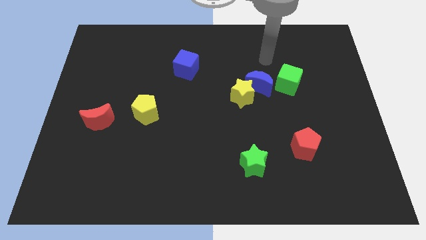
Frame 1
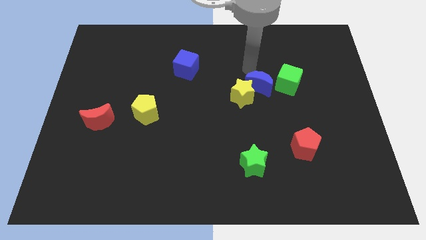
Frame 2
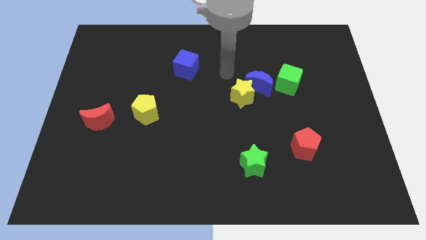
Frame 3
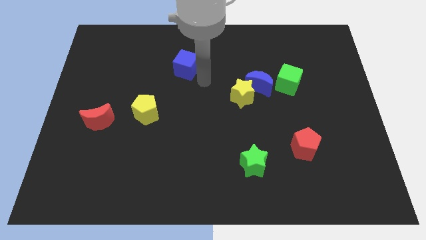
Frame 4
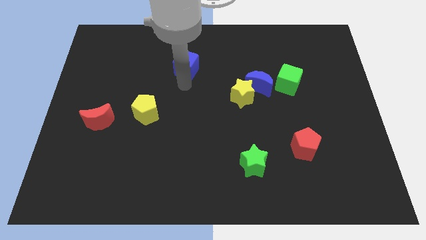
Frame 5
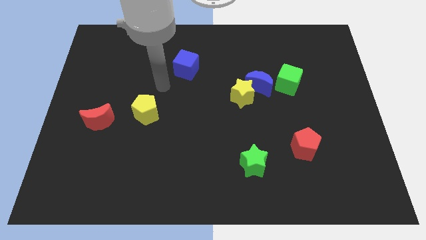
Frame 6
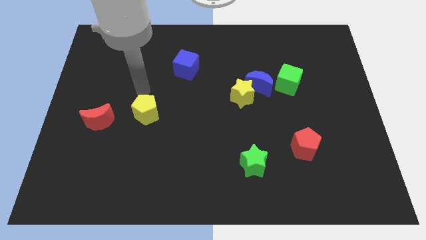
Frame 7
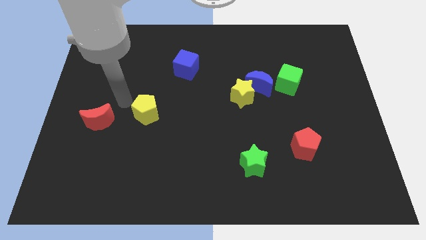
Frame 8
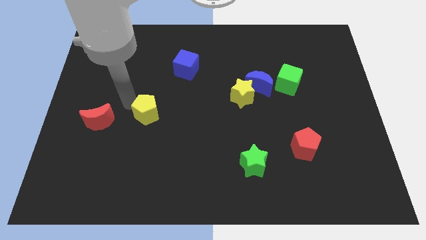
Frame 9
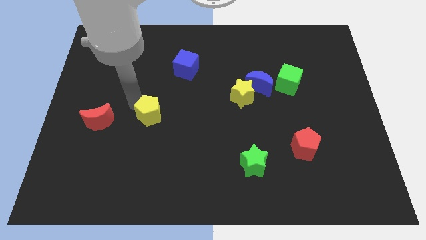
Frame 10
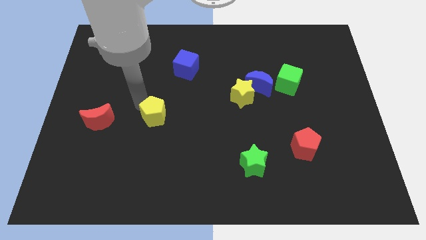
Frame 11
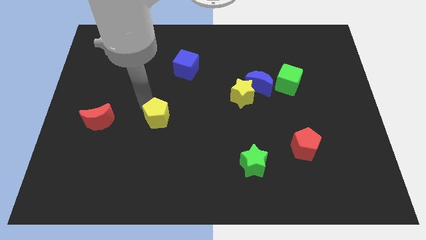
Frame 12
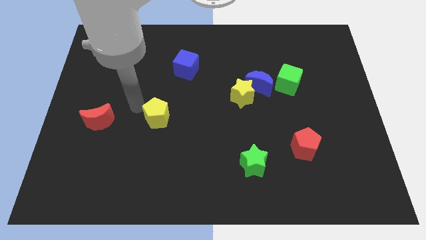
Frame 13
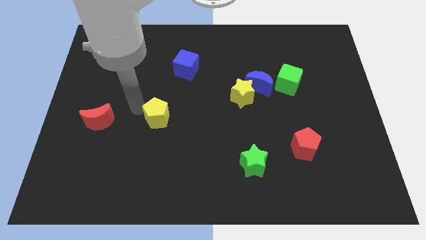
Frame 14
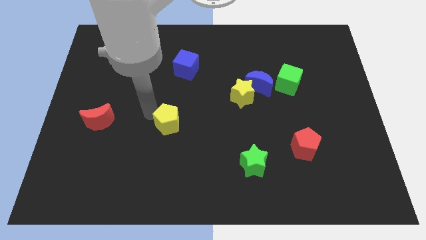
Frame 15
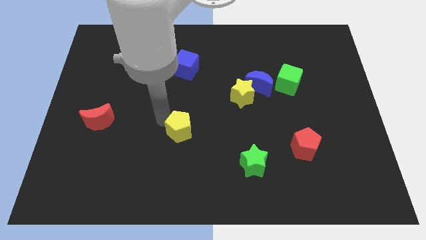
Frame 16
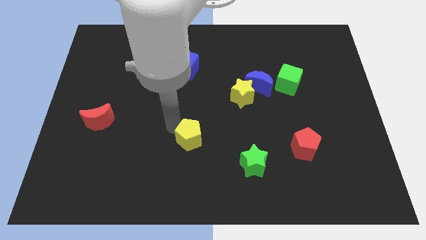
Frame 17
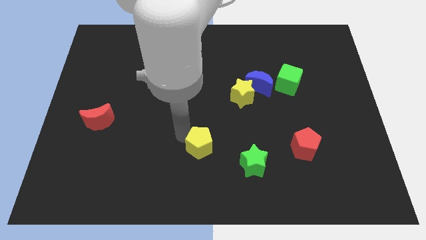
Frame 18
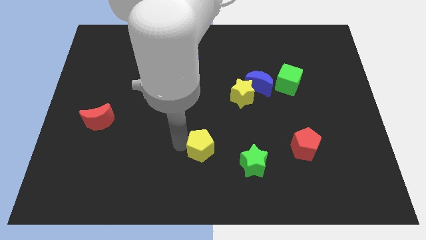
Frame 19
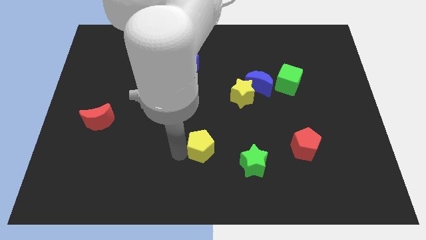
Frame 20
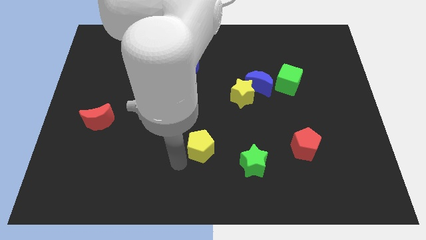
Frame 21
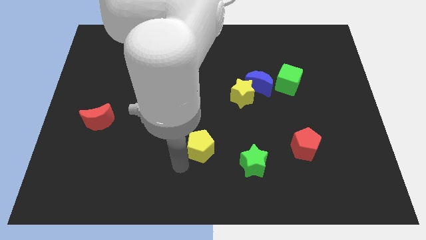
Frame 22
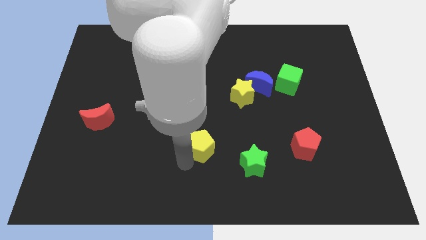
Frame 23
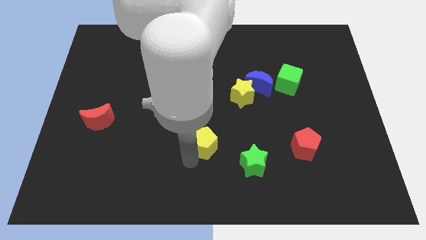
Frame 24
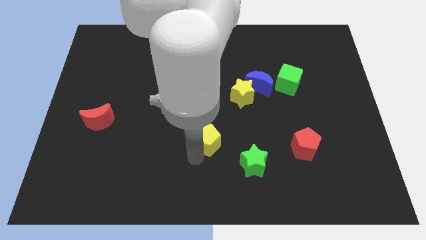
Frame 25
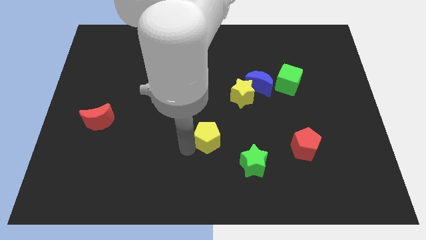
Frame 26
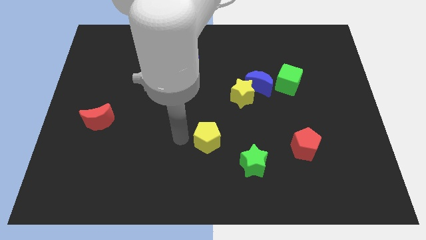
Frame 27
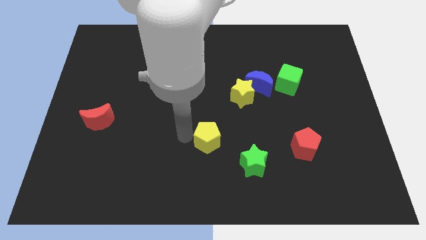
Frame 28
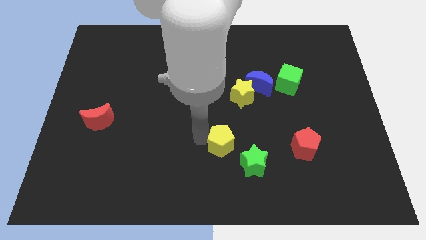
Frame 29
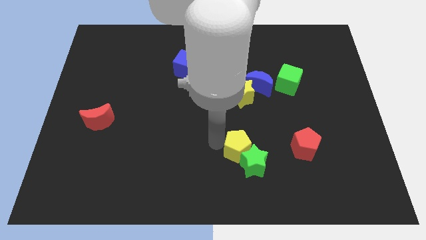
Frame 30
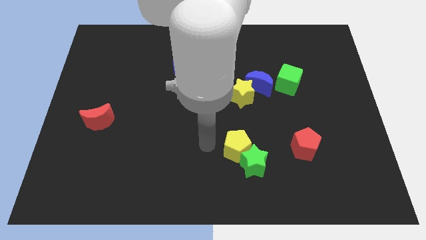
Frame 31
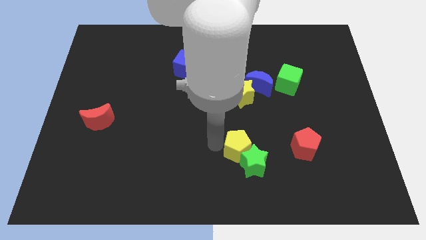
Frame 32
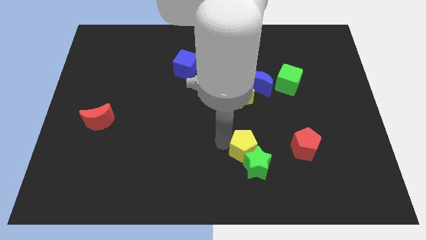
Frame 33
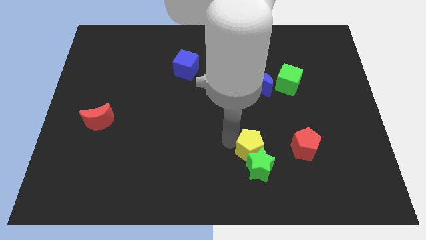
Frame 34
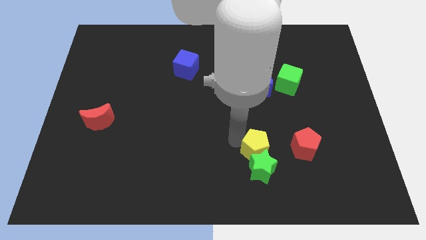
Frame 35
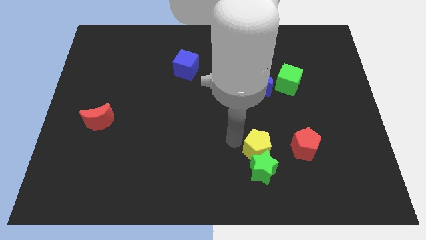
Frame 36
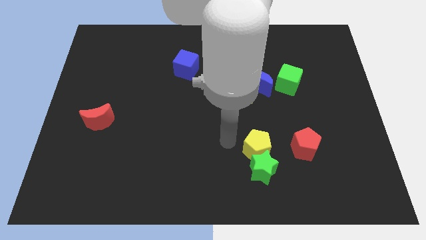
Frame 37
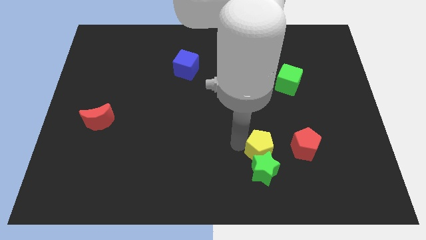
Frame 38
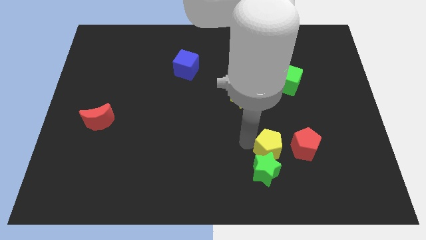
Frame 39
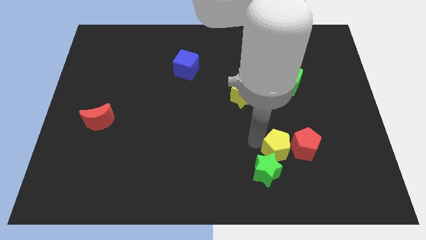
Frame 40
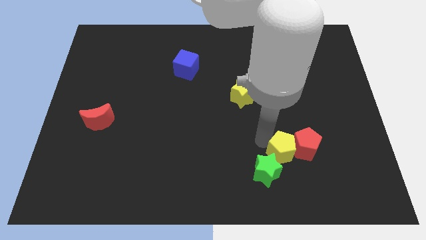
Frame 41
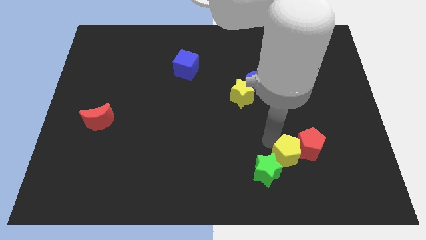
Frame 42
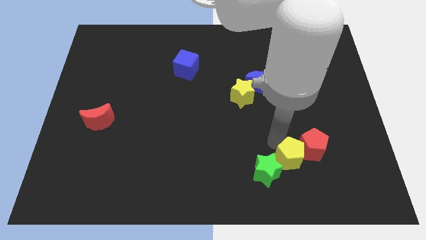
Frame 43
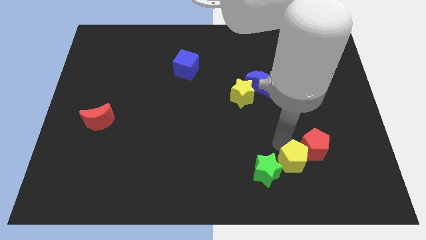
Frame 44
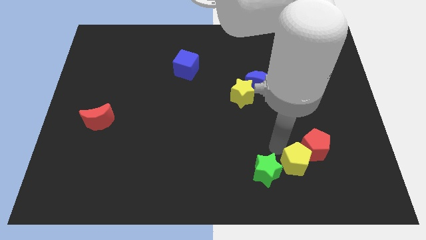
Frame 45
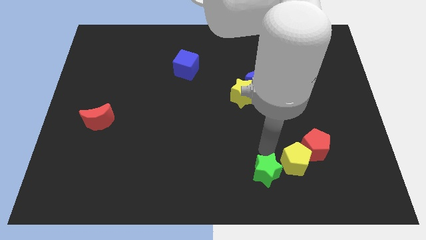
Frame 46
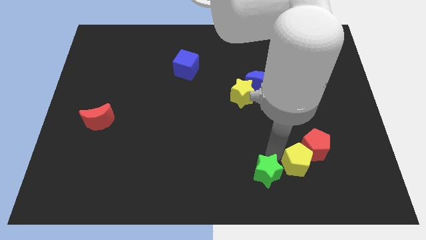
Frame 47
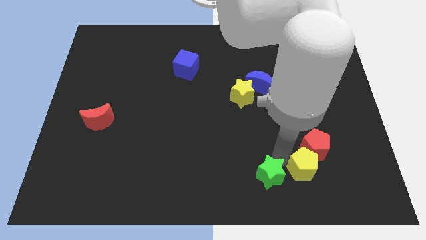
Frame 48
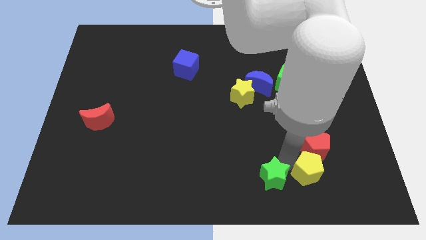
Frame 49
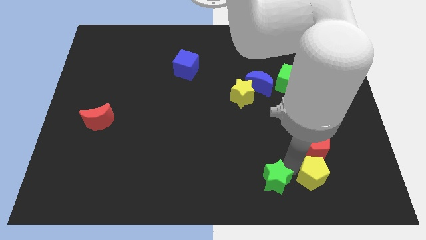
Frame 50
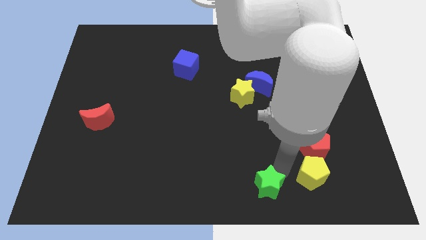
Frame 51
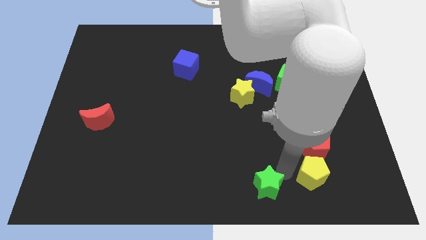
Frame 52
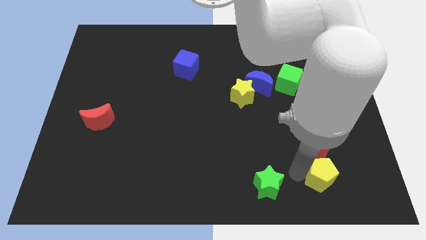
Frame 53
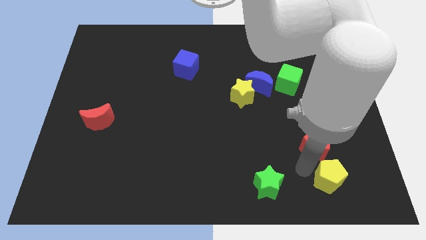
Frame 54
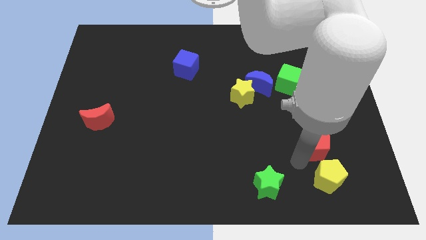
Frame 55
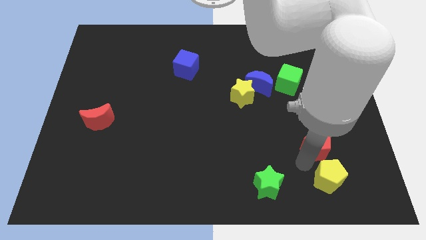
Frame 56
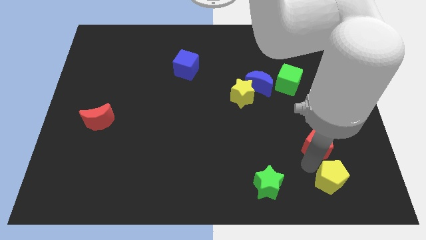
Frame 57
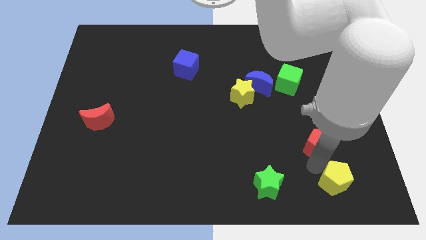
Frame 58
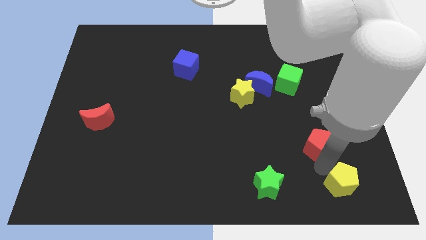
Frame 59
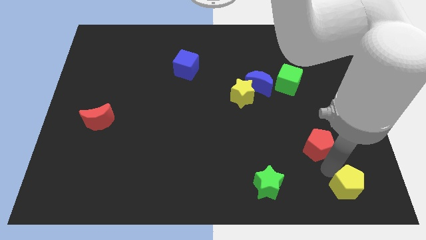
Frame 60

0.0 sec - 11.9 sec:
push the yellow pentagon to the lower right corner

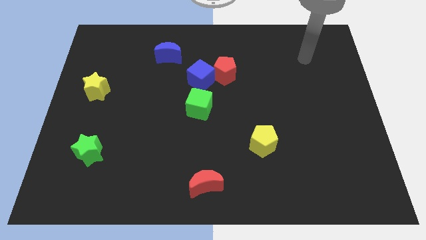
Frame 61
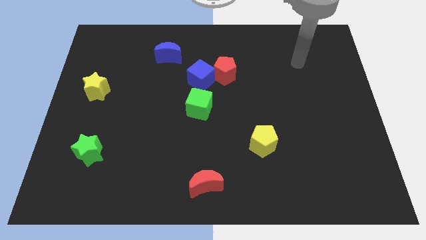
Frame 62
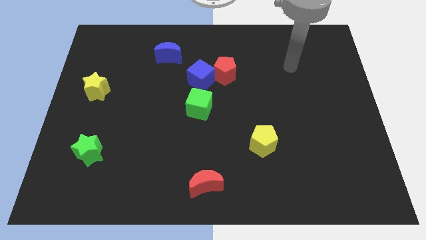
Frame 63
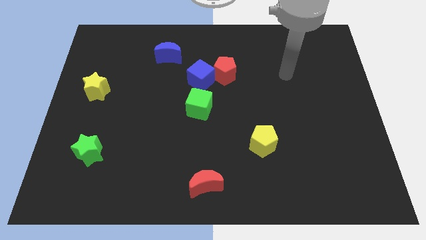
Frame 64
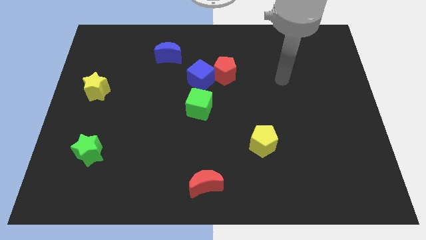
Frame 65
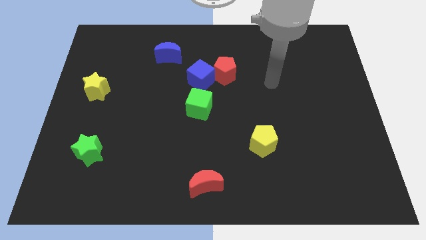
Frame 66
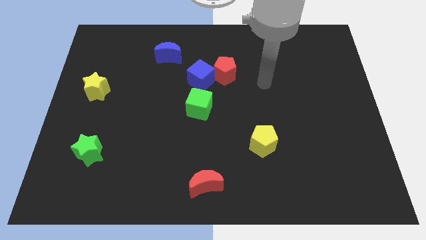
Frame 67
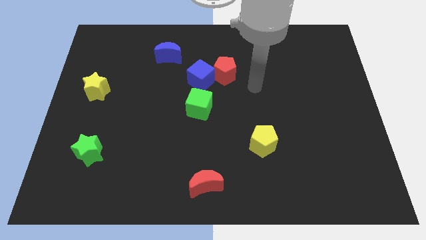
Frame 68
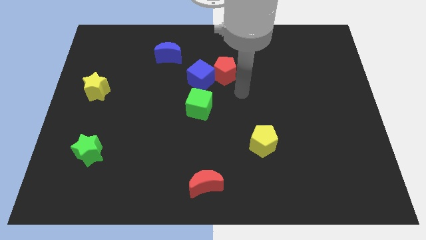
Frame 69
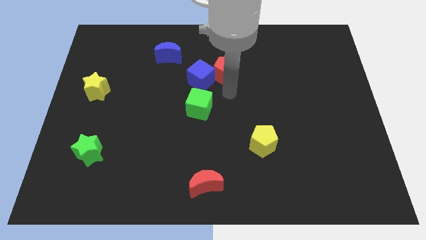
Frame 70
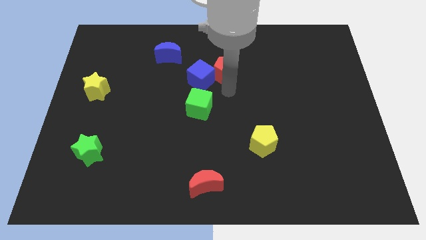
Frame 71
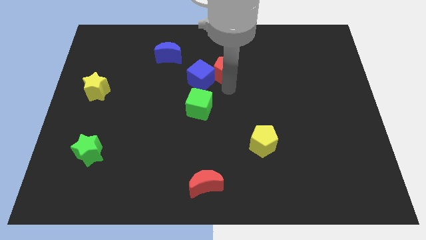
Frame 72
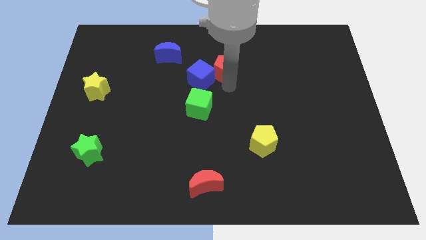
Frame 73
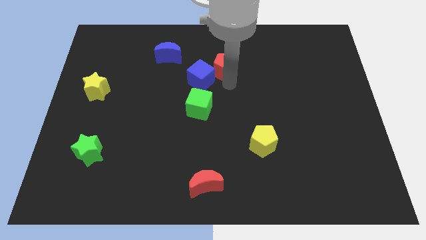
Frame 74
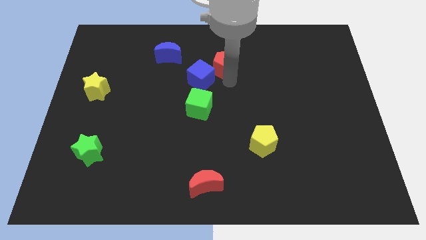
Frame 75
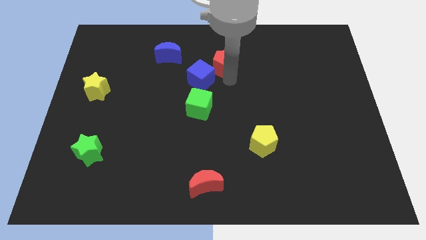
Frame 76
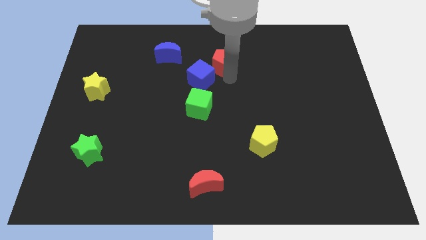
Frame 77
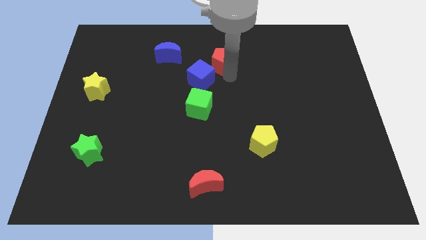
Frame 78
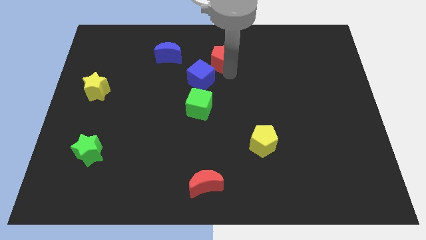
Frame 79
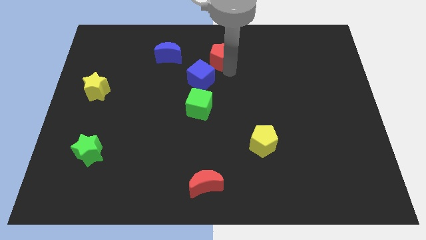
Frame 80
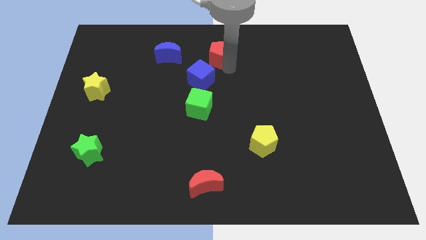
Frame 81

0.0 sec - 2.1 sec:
put the red pentagon to the top
